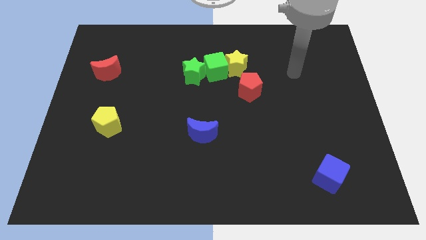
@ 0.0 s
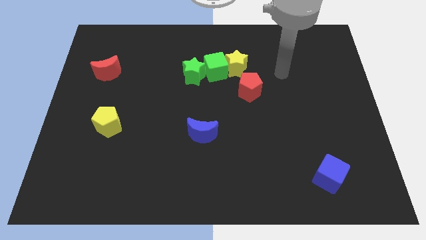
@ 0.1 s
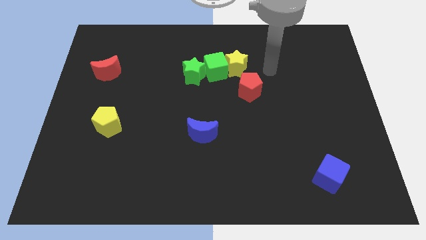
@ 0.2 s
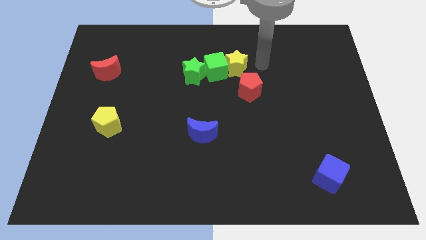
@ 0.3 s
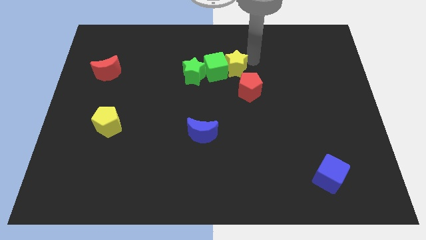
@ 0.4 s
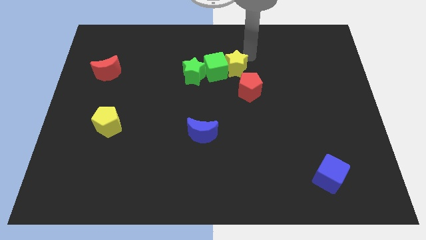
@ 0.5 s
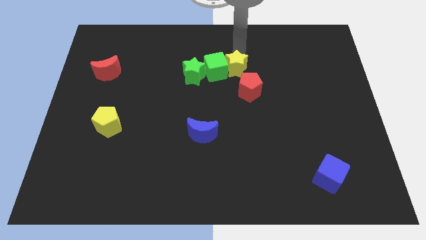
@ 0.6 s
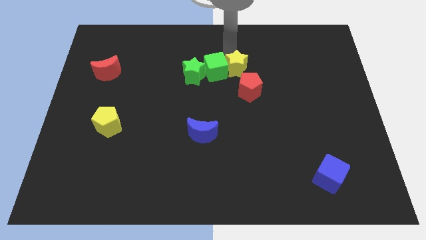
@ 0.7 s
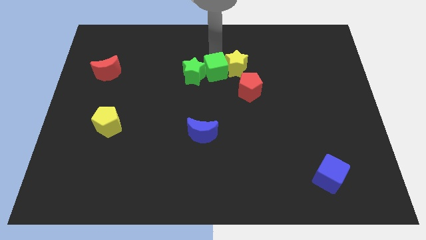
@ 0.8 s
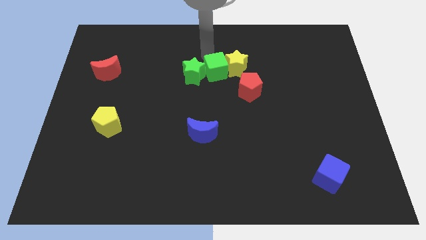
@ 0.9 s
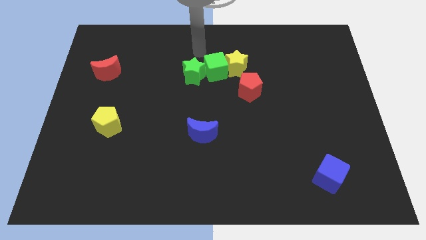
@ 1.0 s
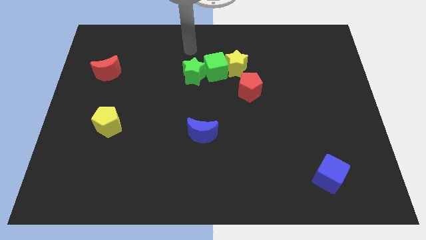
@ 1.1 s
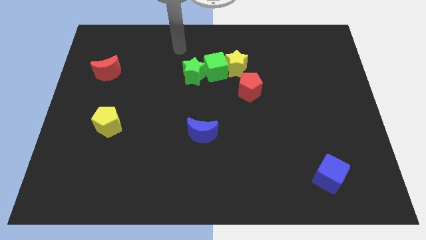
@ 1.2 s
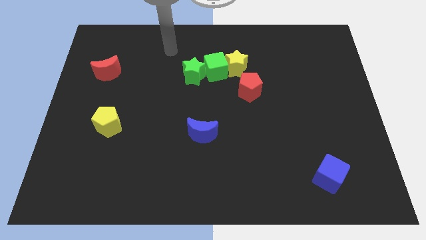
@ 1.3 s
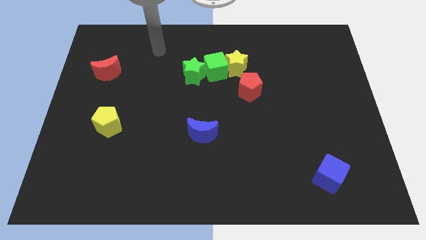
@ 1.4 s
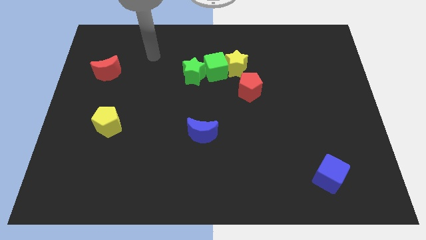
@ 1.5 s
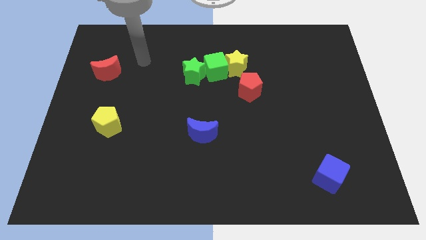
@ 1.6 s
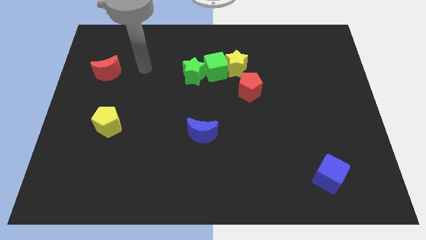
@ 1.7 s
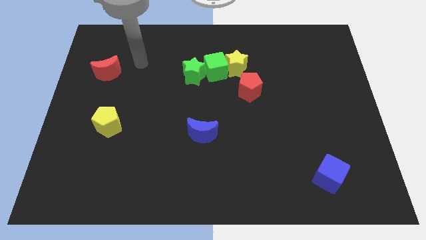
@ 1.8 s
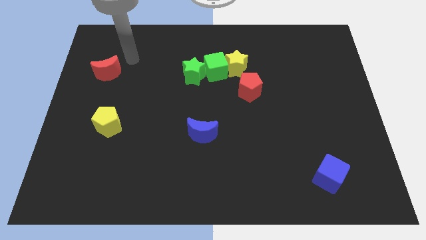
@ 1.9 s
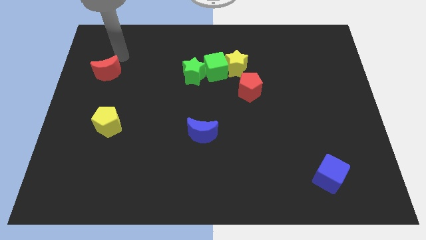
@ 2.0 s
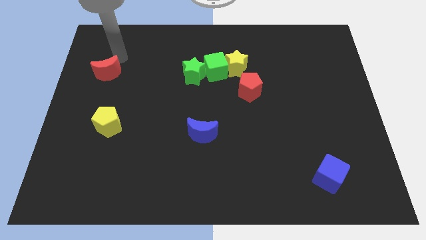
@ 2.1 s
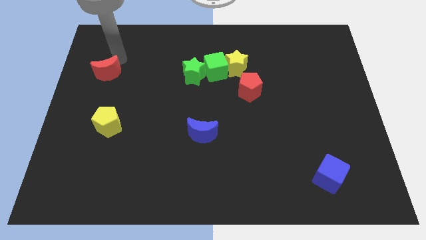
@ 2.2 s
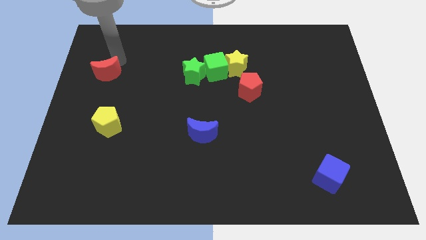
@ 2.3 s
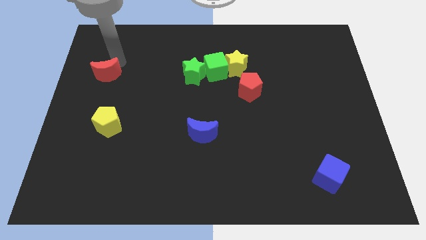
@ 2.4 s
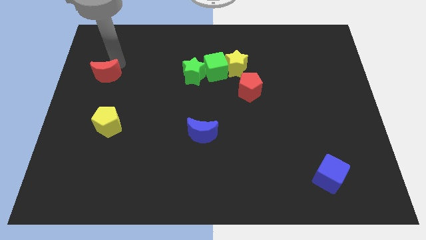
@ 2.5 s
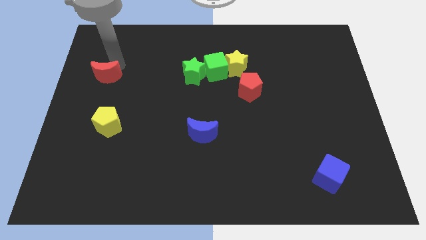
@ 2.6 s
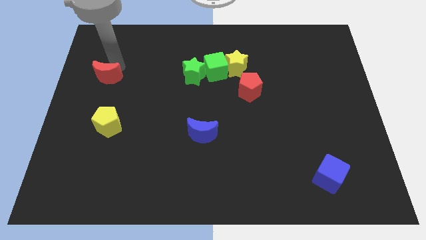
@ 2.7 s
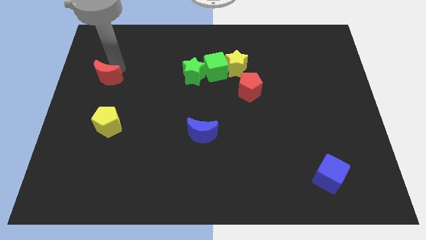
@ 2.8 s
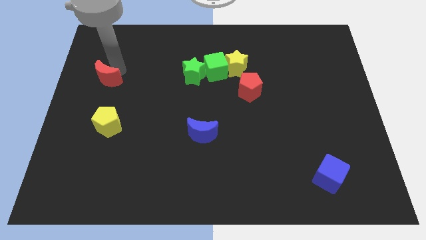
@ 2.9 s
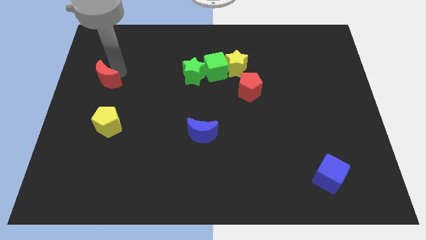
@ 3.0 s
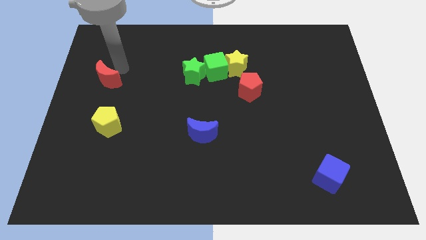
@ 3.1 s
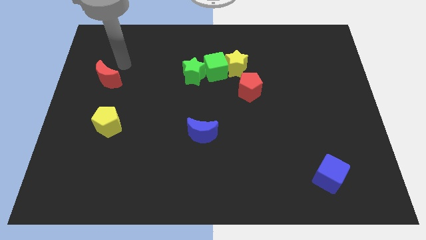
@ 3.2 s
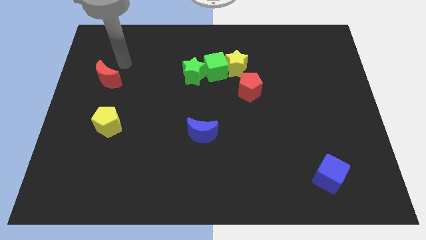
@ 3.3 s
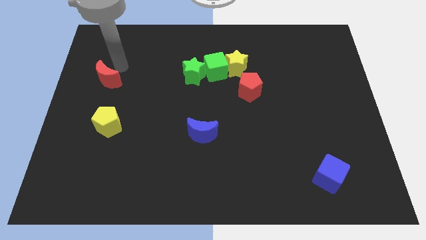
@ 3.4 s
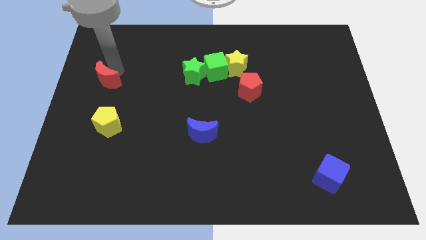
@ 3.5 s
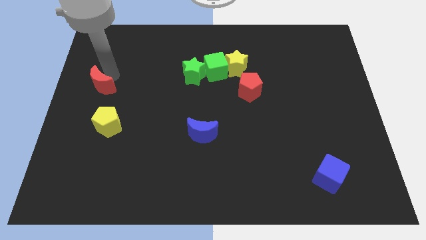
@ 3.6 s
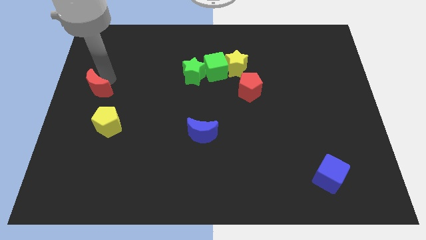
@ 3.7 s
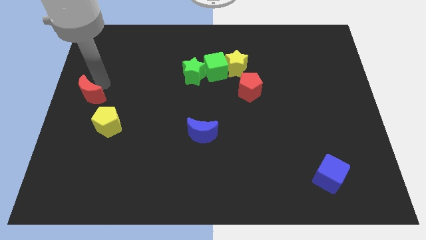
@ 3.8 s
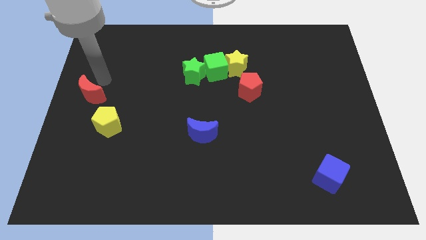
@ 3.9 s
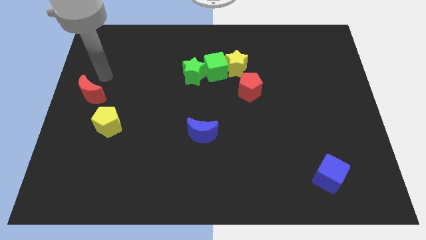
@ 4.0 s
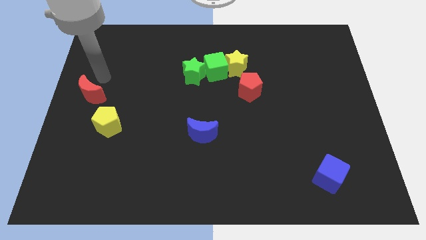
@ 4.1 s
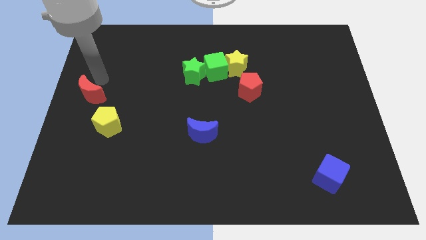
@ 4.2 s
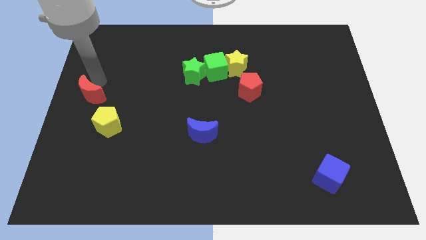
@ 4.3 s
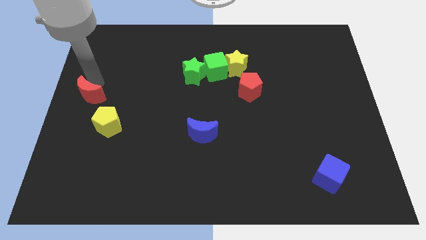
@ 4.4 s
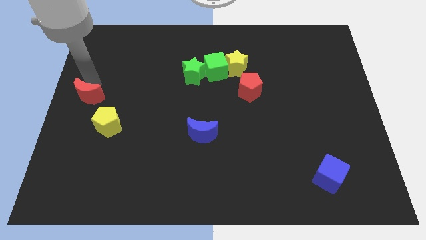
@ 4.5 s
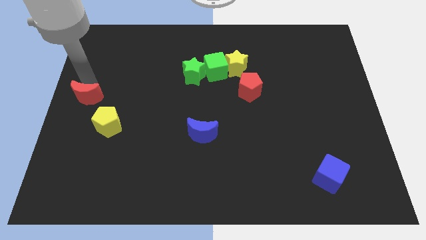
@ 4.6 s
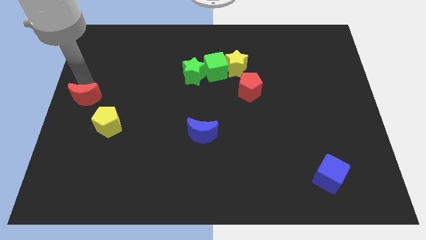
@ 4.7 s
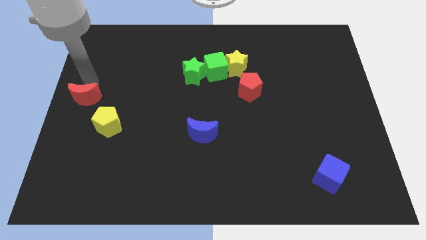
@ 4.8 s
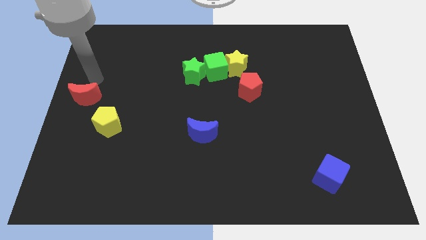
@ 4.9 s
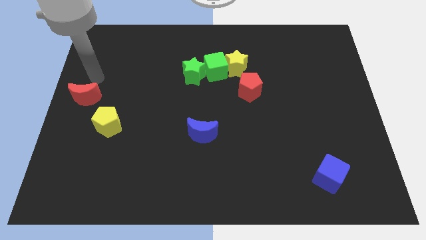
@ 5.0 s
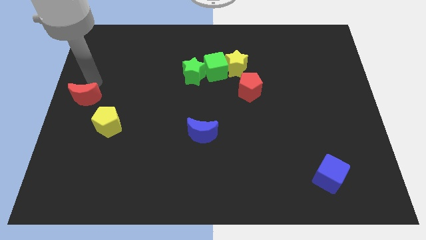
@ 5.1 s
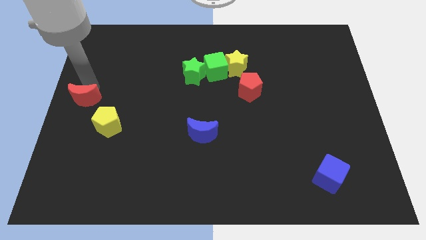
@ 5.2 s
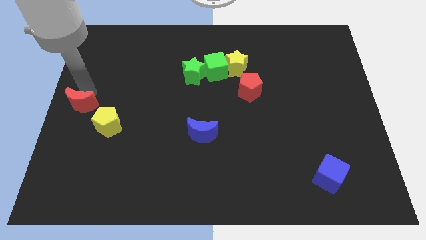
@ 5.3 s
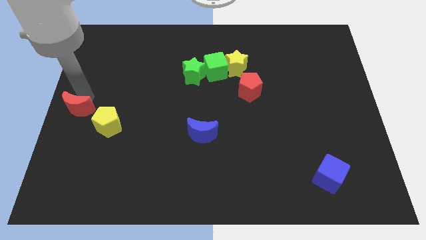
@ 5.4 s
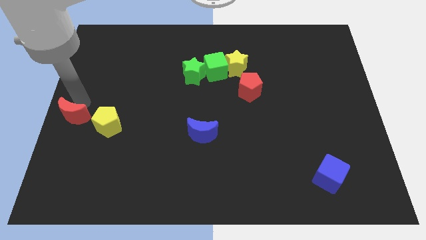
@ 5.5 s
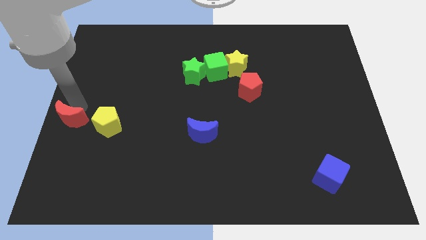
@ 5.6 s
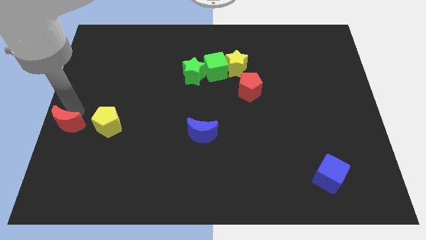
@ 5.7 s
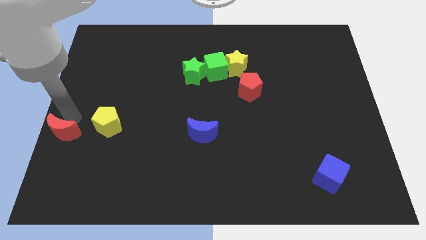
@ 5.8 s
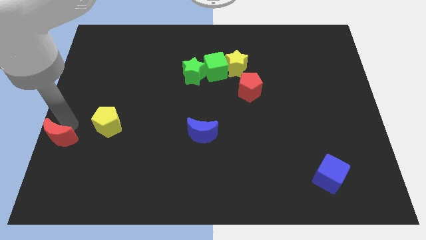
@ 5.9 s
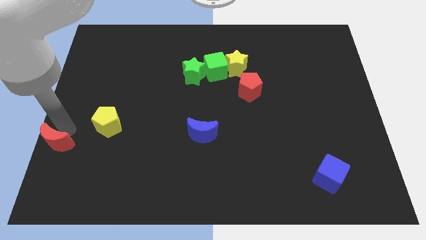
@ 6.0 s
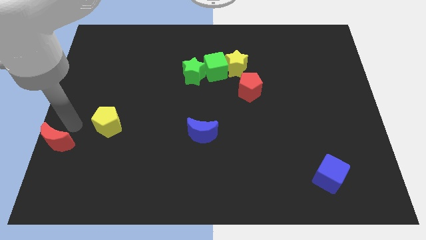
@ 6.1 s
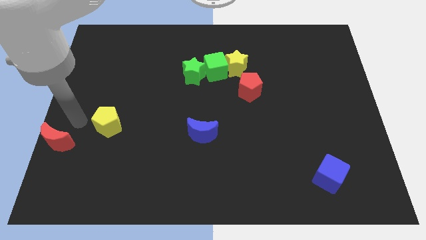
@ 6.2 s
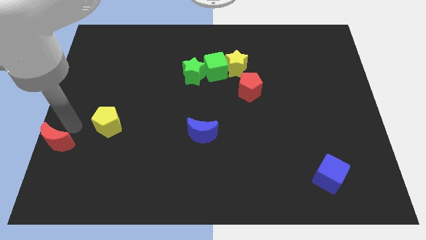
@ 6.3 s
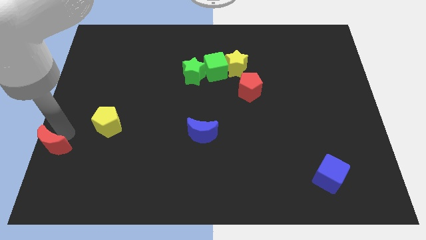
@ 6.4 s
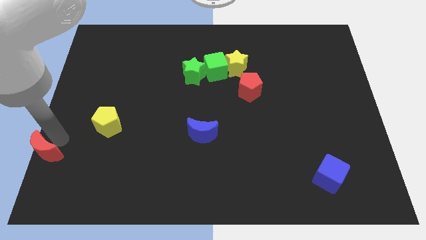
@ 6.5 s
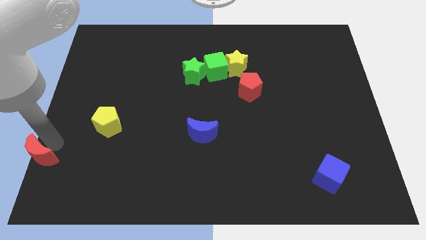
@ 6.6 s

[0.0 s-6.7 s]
push the red moon to the bottom left

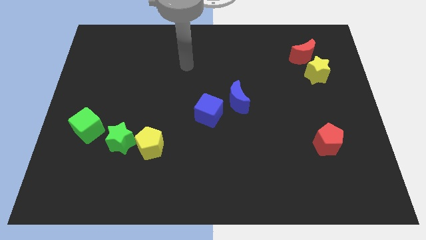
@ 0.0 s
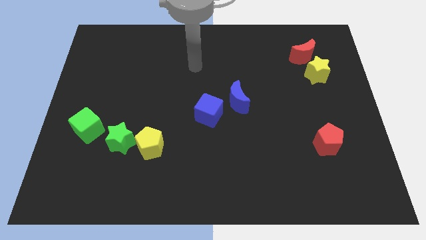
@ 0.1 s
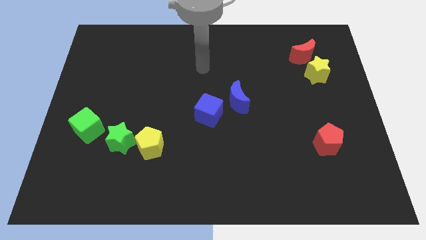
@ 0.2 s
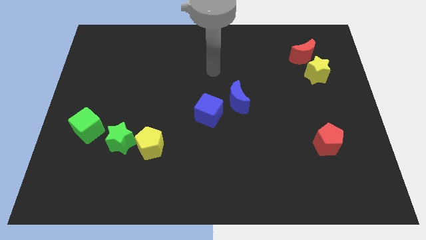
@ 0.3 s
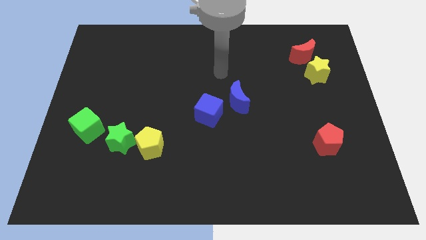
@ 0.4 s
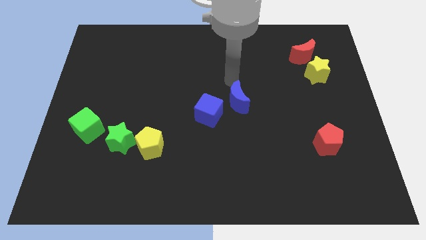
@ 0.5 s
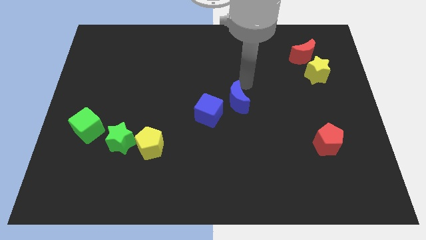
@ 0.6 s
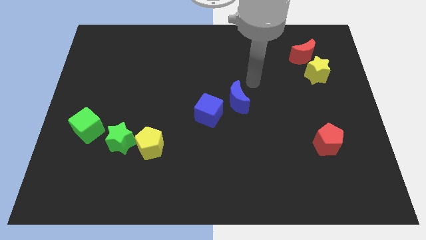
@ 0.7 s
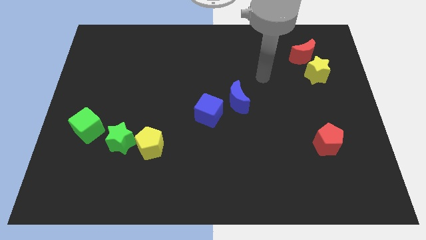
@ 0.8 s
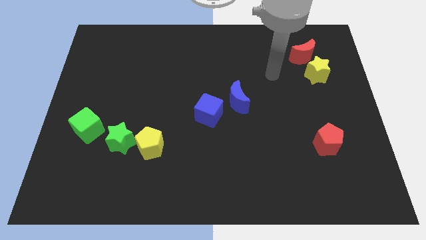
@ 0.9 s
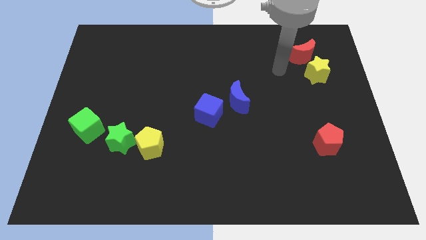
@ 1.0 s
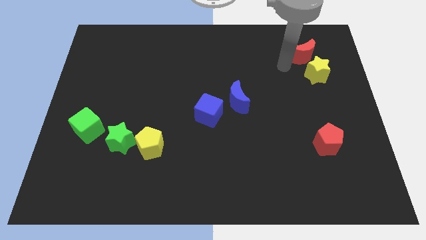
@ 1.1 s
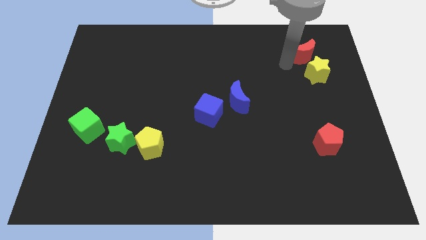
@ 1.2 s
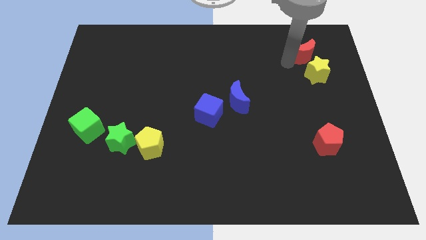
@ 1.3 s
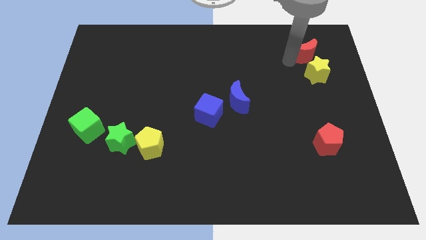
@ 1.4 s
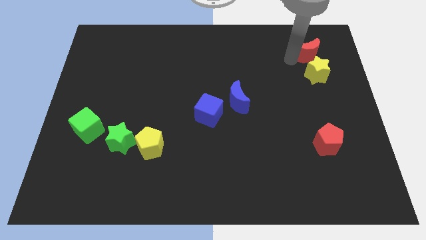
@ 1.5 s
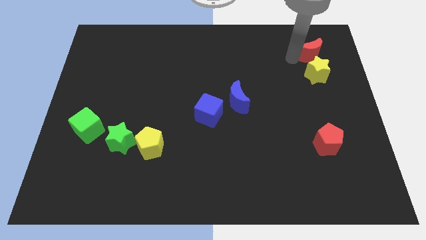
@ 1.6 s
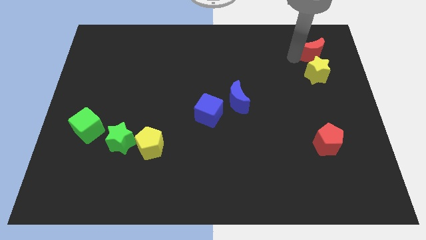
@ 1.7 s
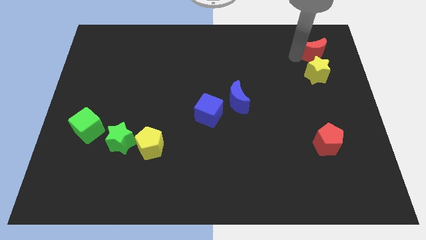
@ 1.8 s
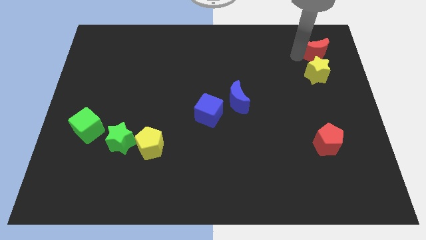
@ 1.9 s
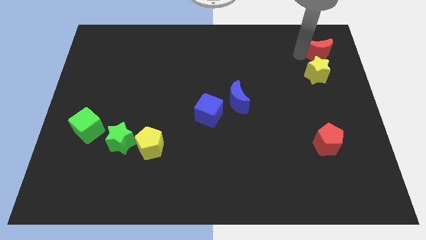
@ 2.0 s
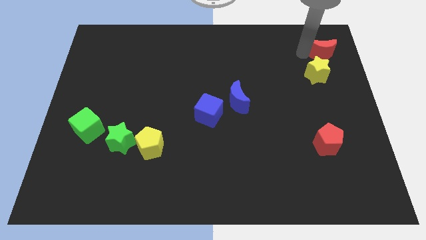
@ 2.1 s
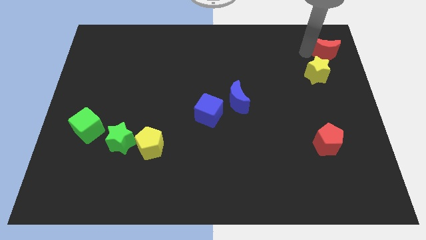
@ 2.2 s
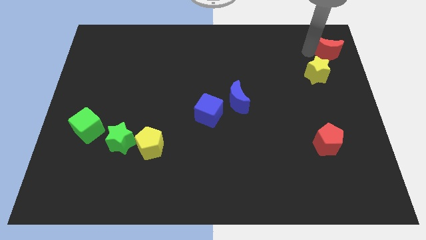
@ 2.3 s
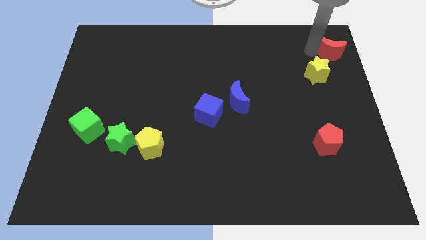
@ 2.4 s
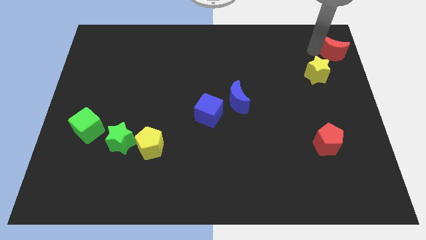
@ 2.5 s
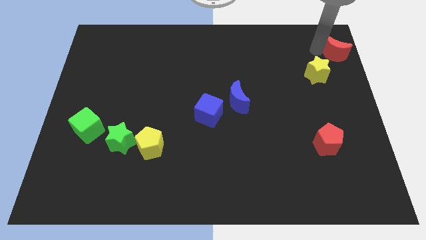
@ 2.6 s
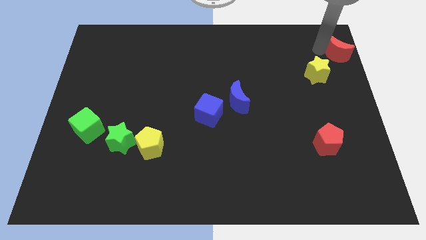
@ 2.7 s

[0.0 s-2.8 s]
put the red moon to the top right
